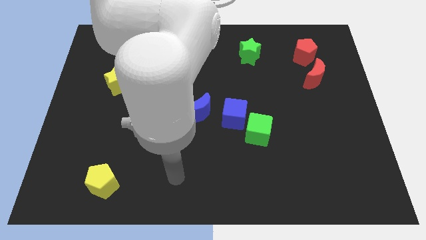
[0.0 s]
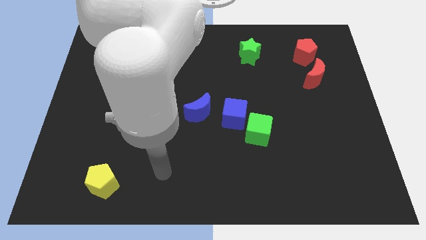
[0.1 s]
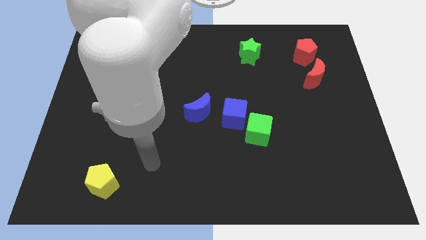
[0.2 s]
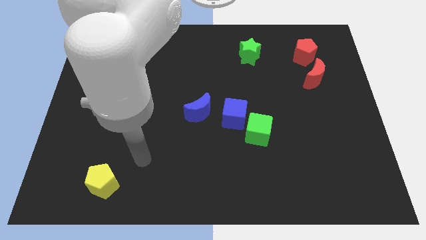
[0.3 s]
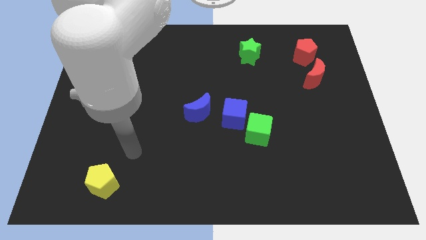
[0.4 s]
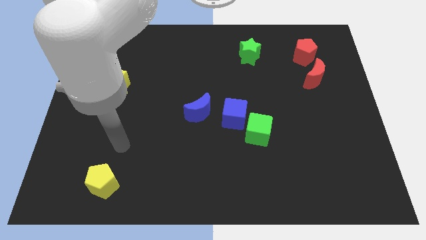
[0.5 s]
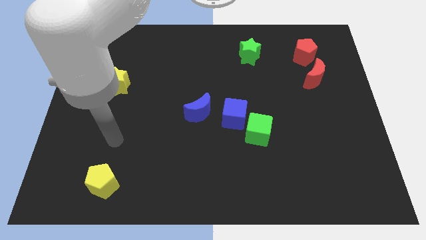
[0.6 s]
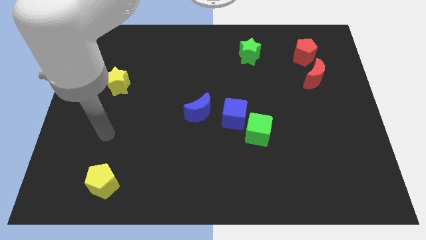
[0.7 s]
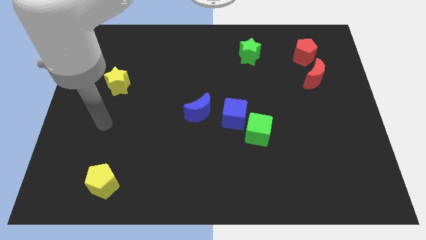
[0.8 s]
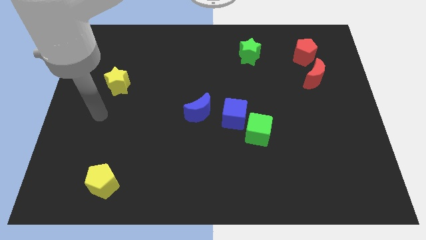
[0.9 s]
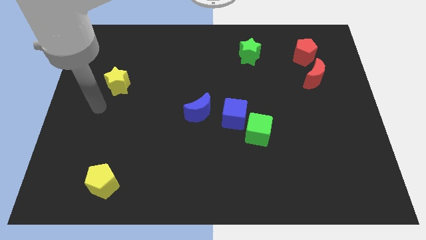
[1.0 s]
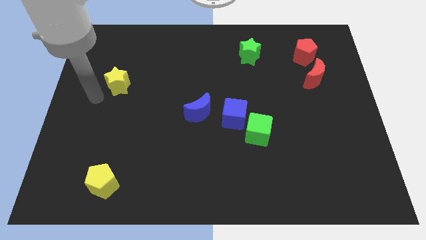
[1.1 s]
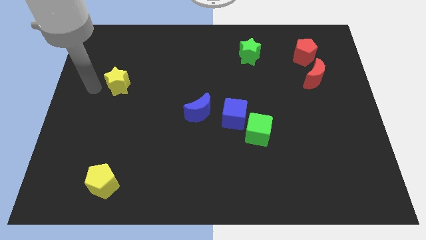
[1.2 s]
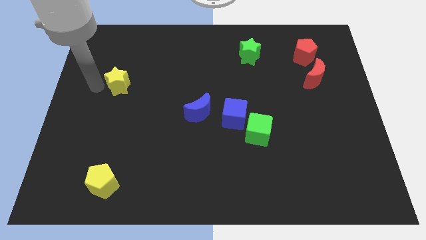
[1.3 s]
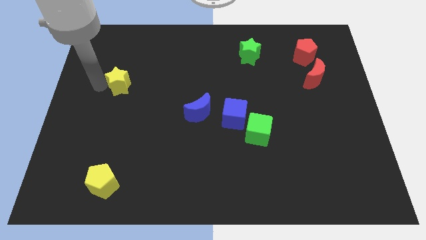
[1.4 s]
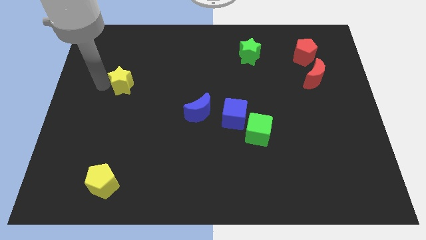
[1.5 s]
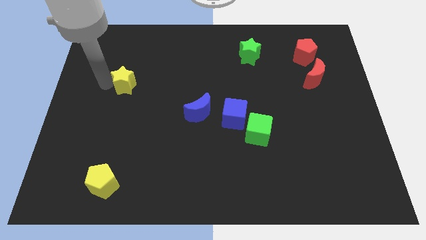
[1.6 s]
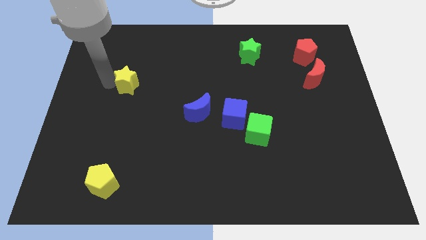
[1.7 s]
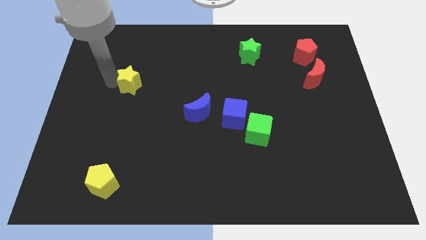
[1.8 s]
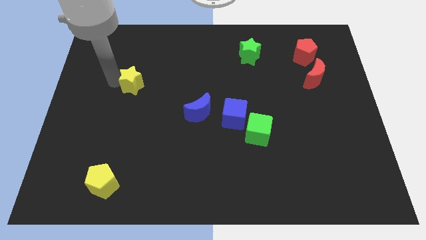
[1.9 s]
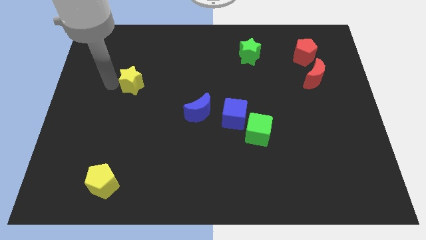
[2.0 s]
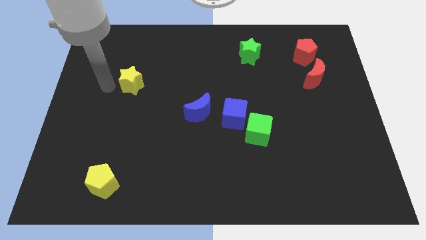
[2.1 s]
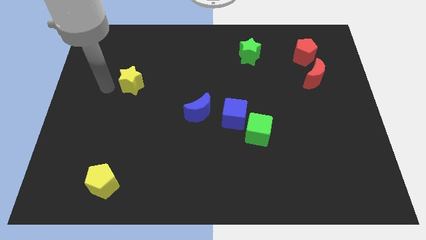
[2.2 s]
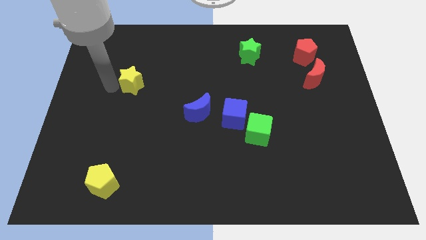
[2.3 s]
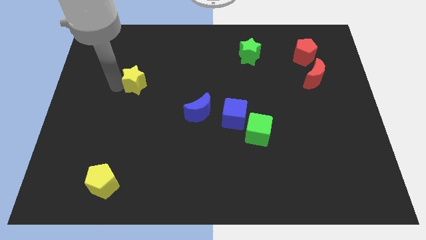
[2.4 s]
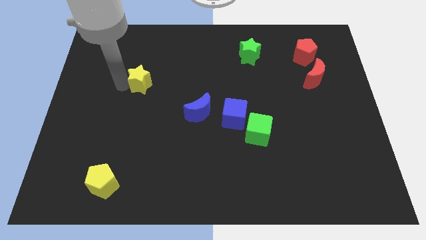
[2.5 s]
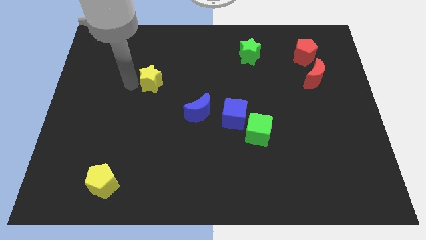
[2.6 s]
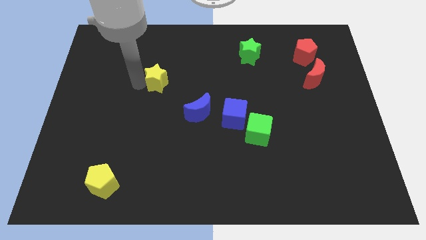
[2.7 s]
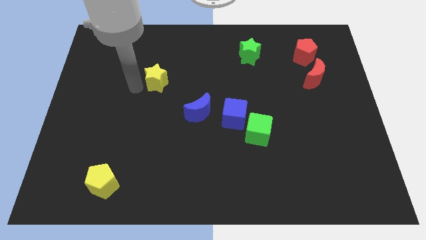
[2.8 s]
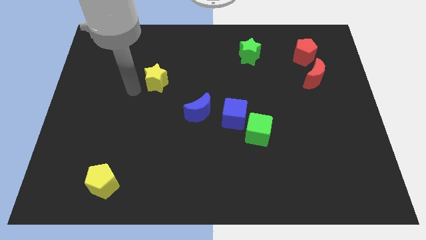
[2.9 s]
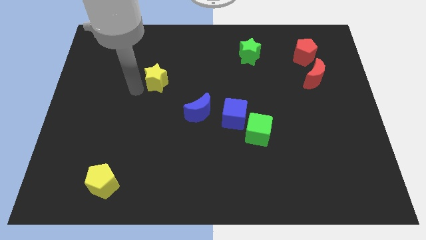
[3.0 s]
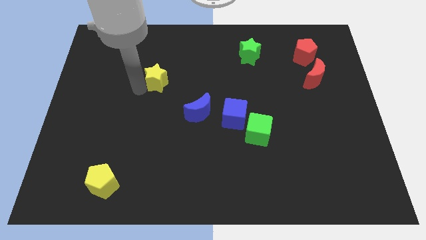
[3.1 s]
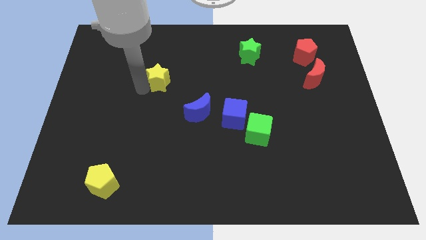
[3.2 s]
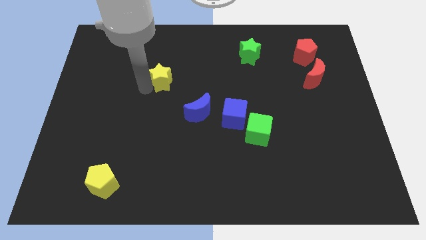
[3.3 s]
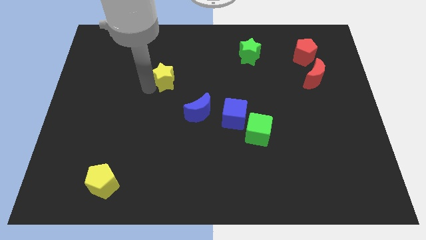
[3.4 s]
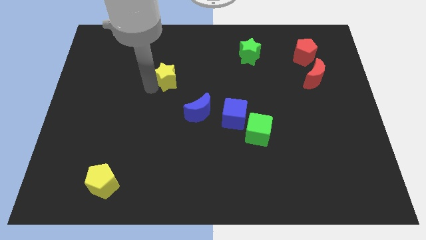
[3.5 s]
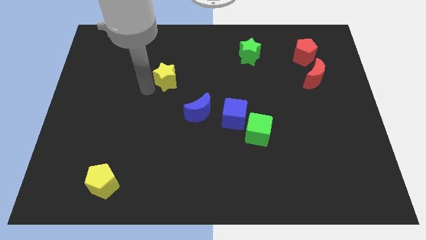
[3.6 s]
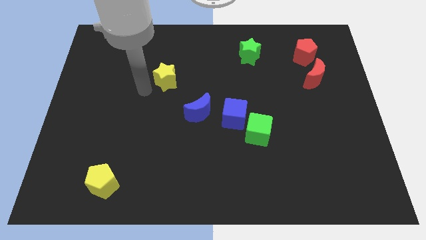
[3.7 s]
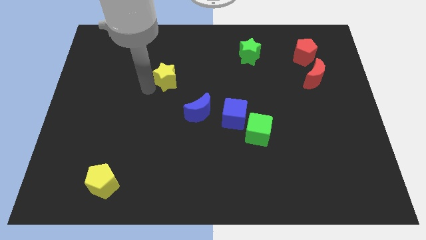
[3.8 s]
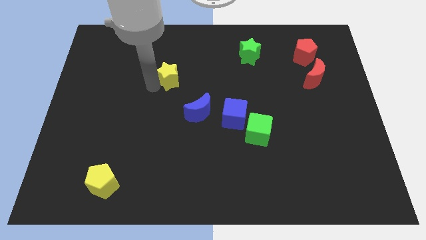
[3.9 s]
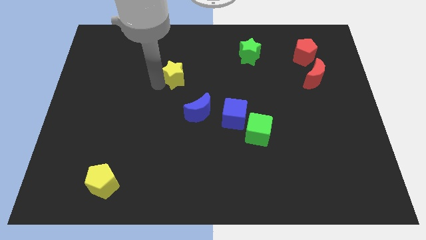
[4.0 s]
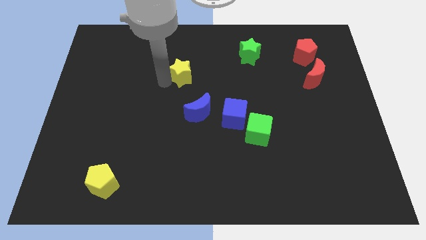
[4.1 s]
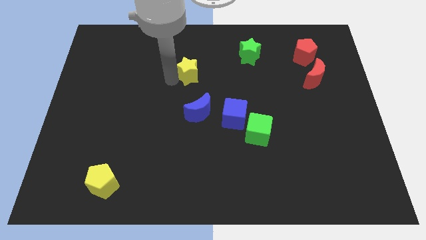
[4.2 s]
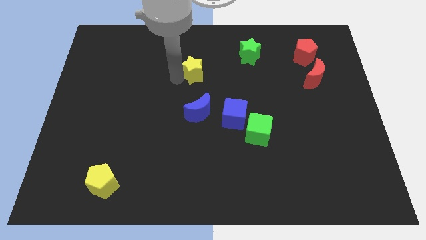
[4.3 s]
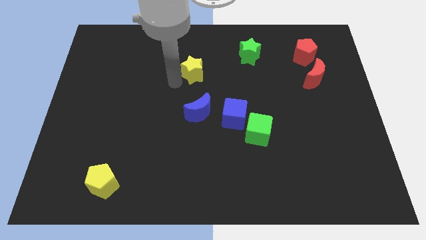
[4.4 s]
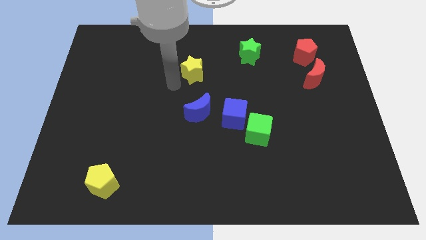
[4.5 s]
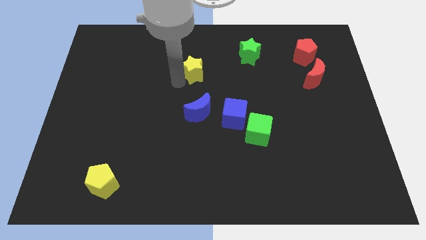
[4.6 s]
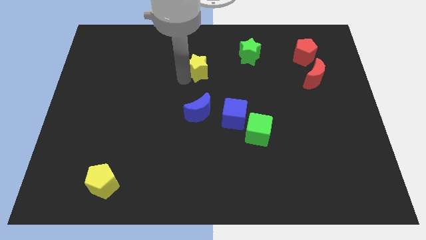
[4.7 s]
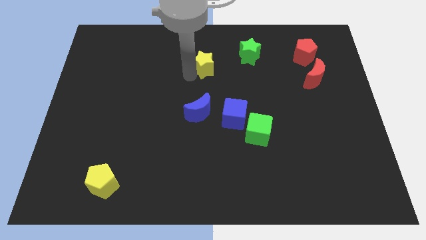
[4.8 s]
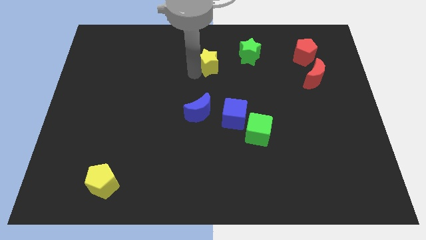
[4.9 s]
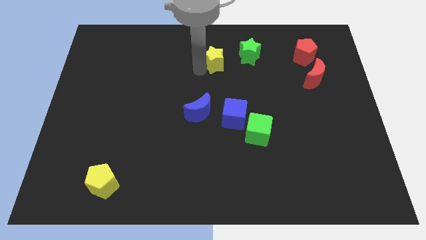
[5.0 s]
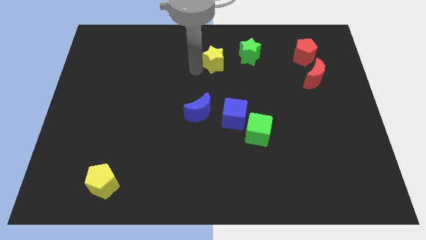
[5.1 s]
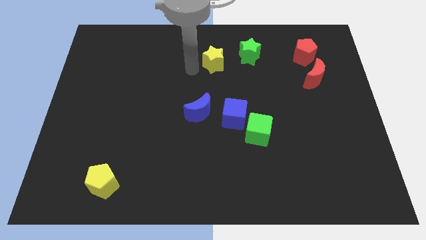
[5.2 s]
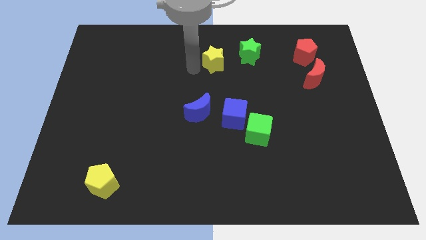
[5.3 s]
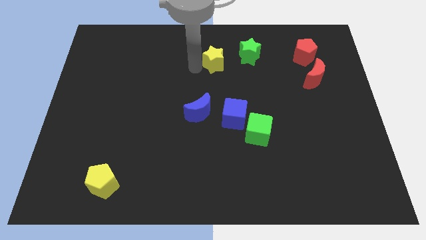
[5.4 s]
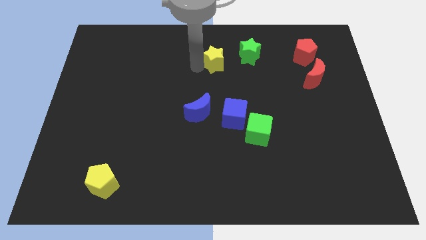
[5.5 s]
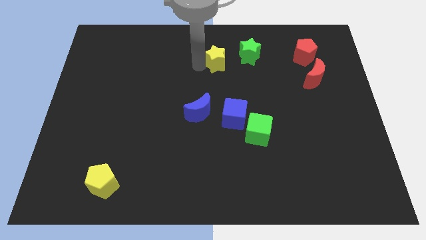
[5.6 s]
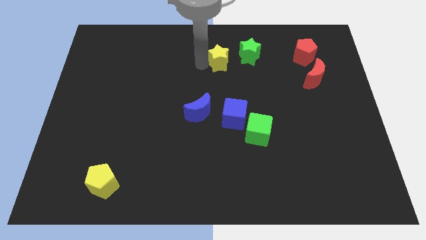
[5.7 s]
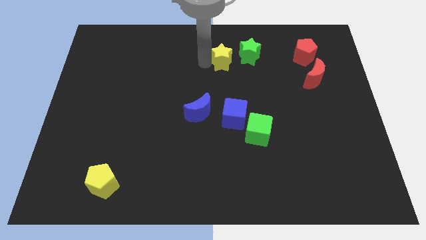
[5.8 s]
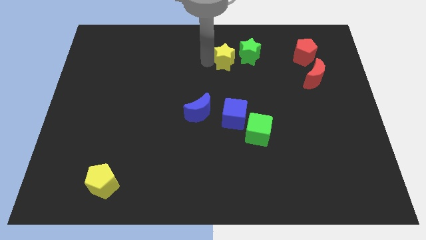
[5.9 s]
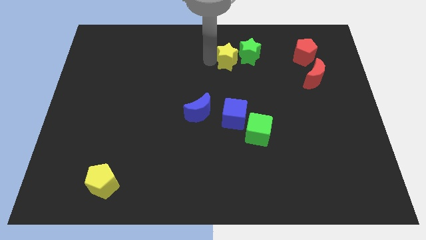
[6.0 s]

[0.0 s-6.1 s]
slide the yellow star next to the green star

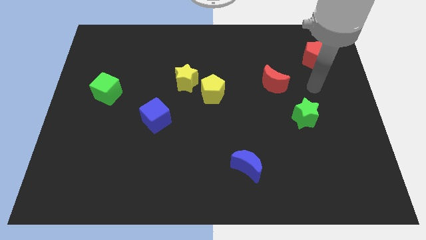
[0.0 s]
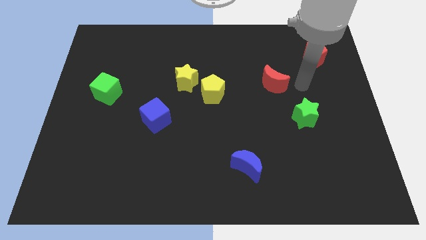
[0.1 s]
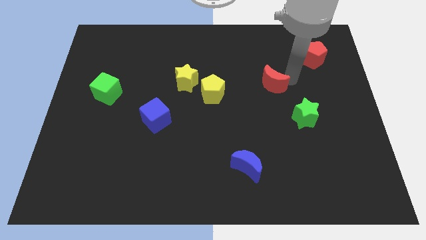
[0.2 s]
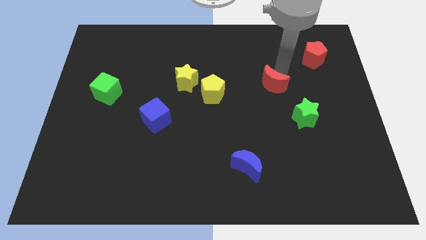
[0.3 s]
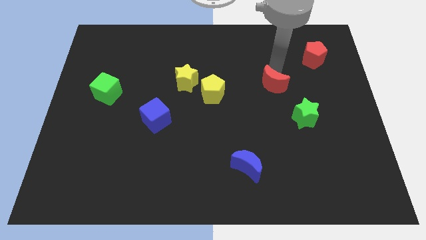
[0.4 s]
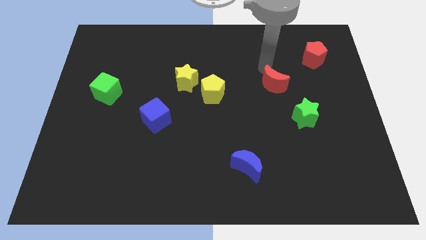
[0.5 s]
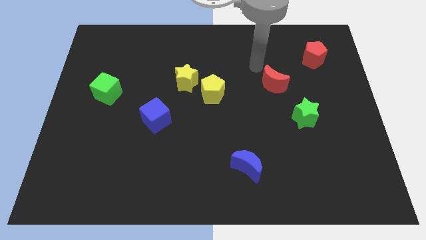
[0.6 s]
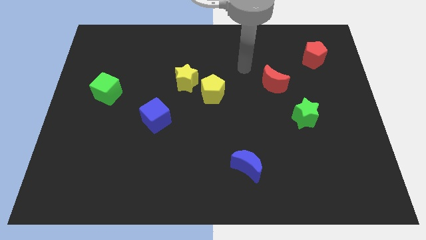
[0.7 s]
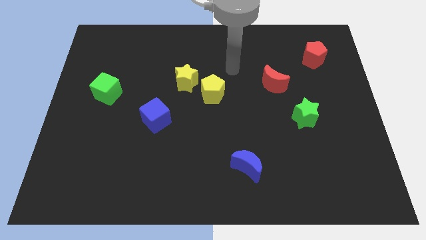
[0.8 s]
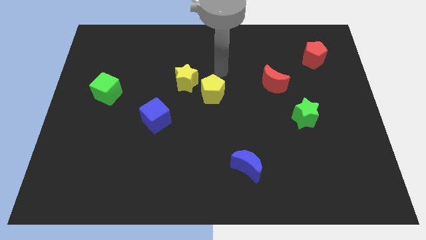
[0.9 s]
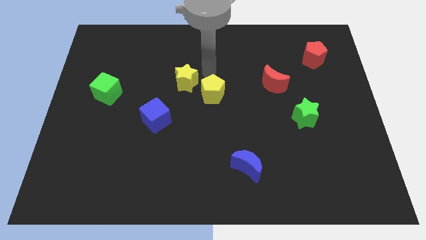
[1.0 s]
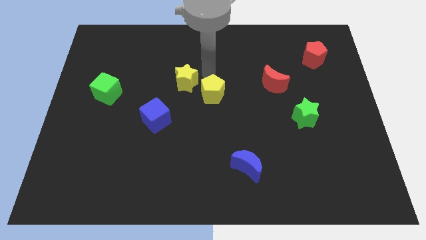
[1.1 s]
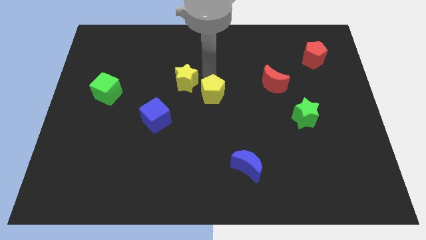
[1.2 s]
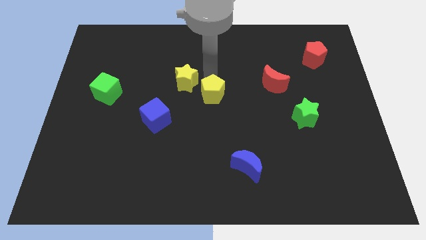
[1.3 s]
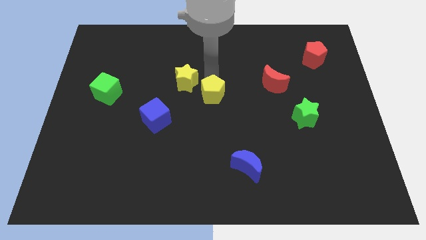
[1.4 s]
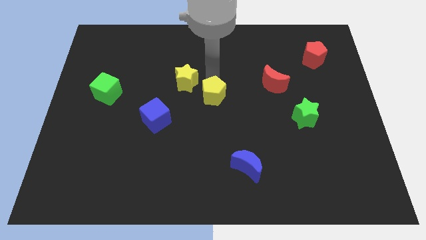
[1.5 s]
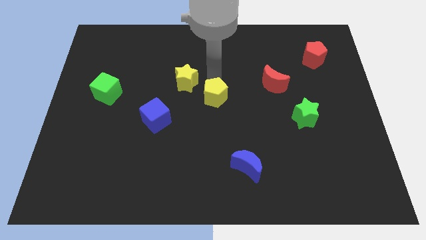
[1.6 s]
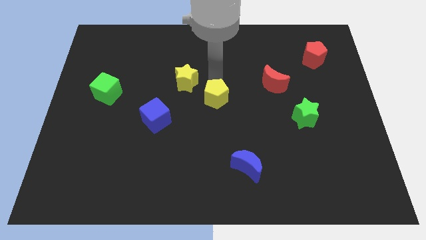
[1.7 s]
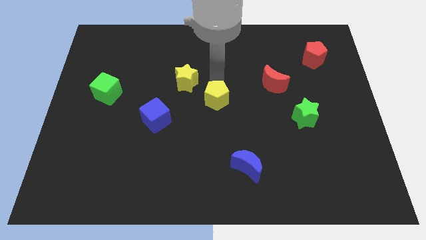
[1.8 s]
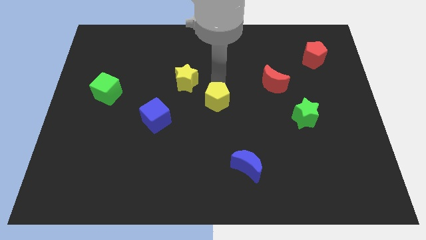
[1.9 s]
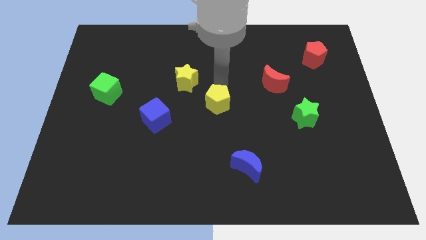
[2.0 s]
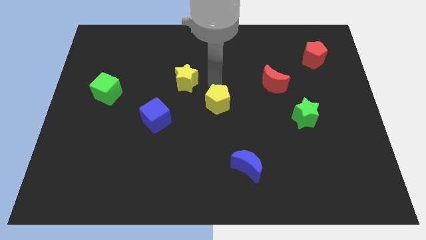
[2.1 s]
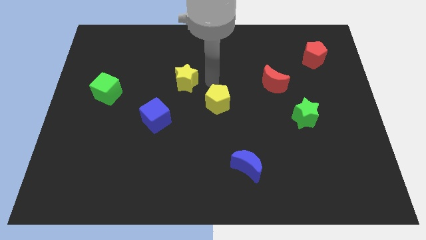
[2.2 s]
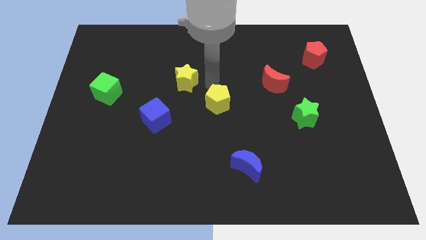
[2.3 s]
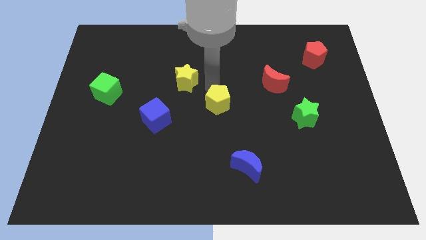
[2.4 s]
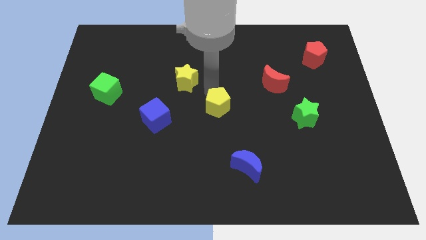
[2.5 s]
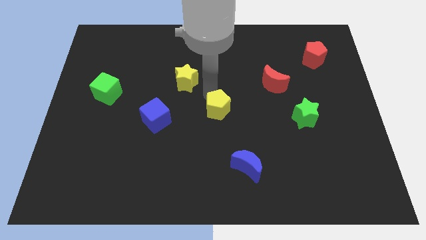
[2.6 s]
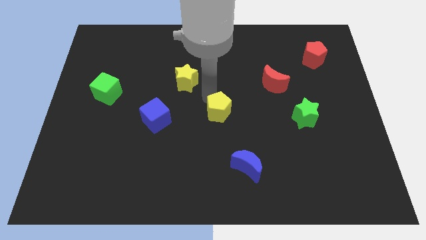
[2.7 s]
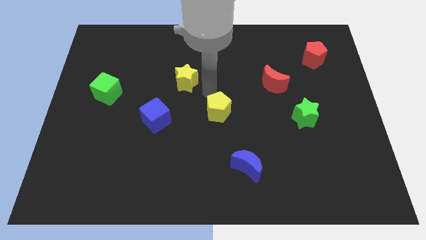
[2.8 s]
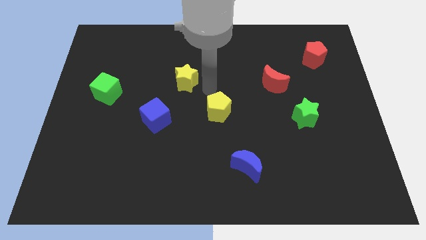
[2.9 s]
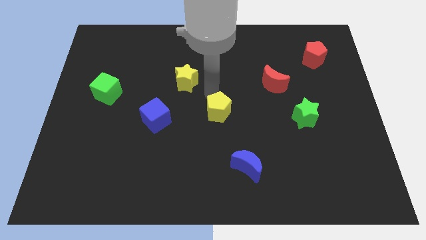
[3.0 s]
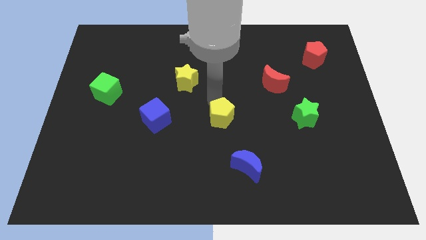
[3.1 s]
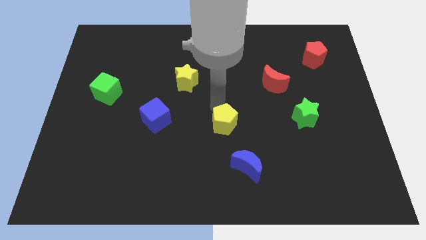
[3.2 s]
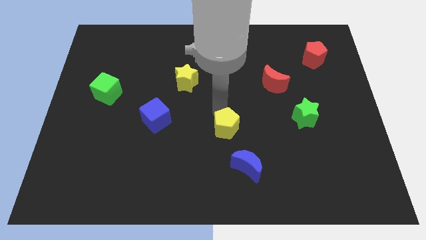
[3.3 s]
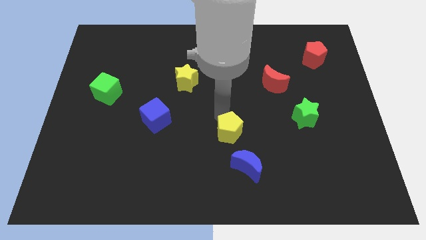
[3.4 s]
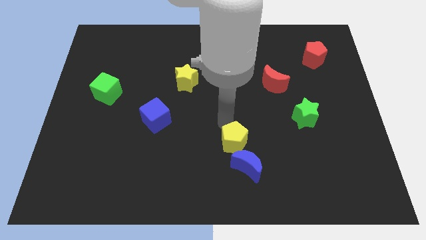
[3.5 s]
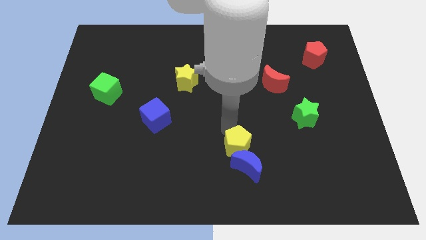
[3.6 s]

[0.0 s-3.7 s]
put the yellow pentagon close to the blue moon
